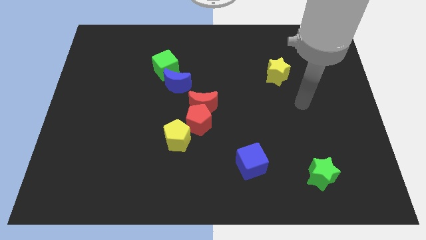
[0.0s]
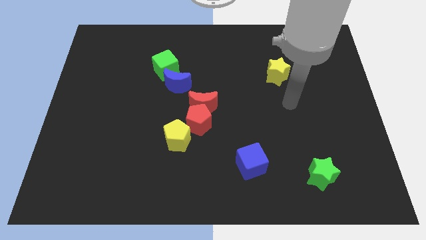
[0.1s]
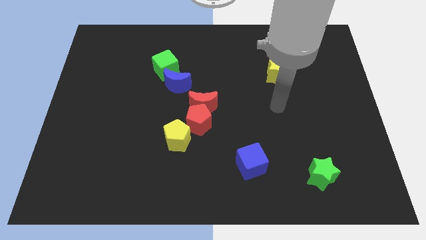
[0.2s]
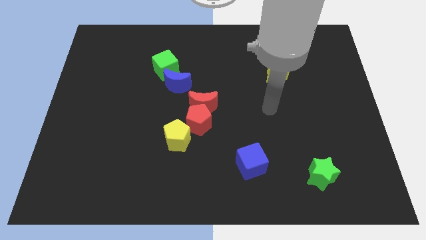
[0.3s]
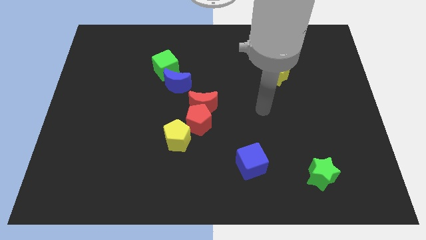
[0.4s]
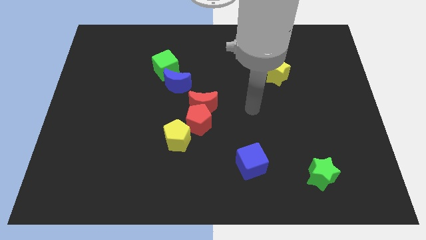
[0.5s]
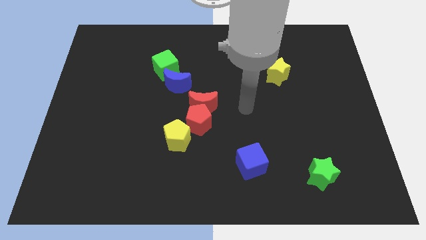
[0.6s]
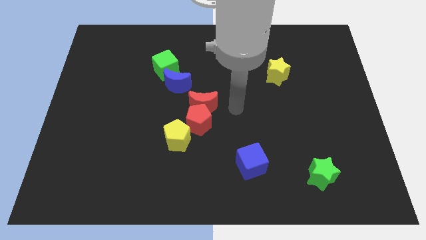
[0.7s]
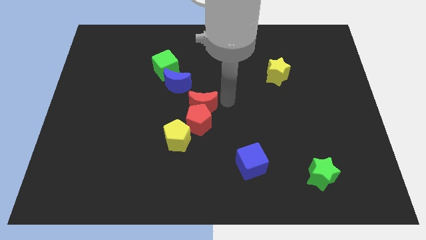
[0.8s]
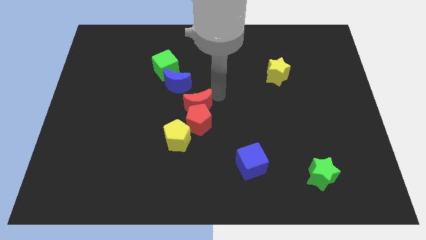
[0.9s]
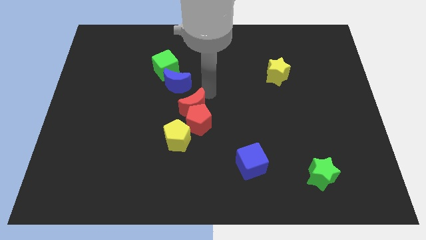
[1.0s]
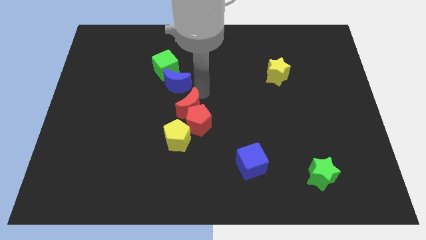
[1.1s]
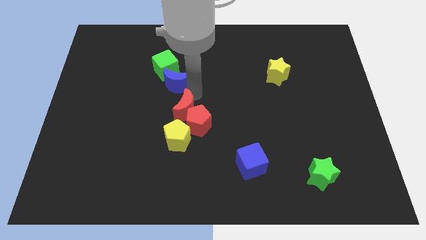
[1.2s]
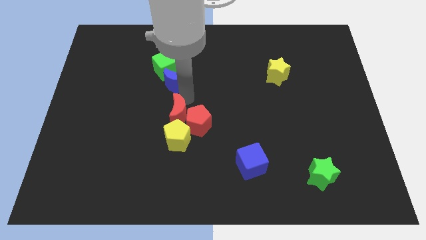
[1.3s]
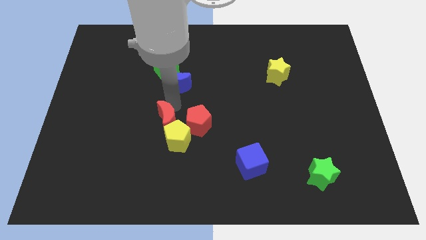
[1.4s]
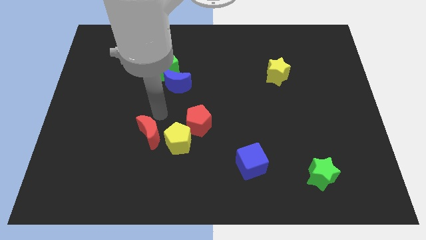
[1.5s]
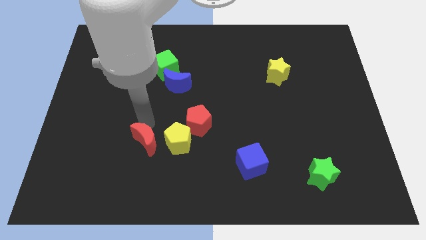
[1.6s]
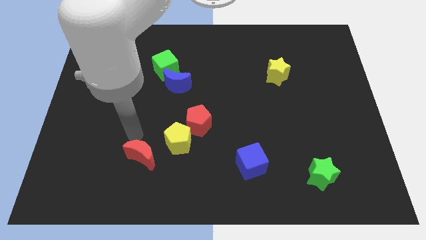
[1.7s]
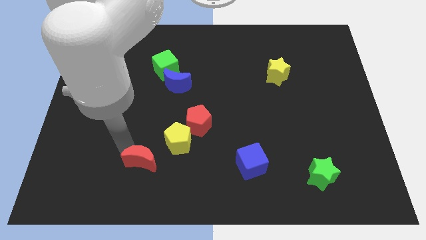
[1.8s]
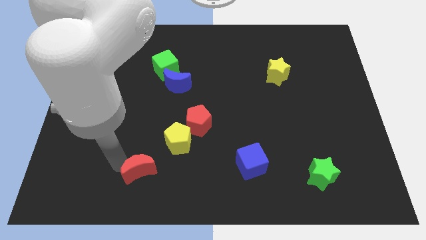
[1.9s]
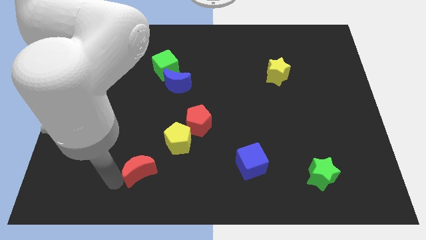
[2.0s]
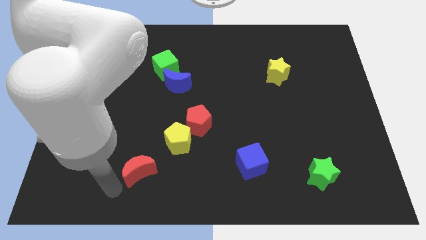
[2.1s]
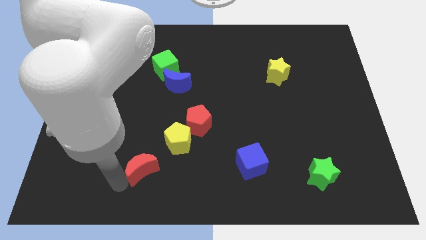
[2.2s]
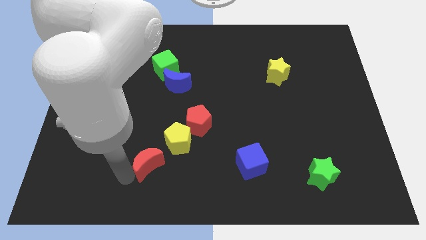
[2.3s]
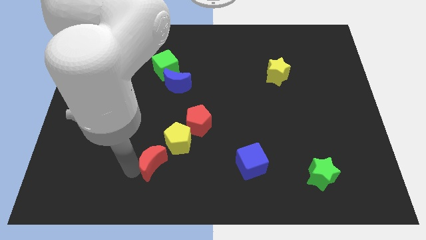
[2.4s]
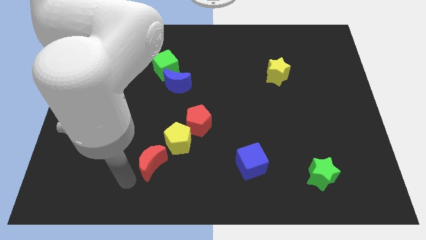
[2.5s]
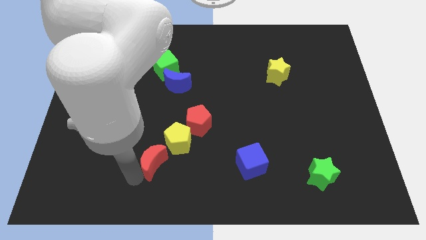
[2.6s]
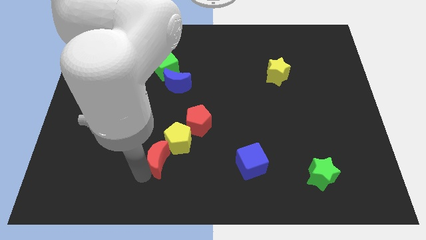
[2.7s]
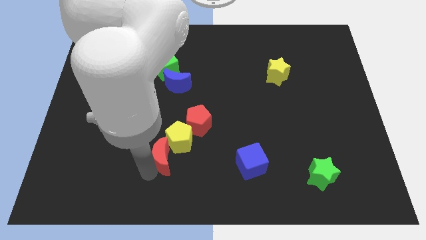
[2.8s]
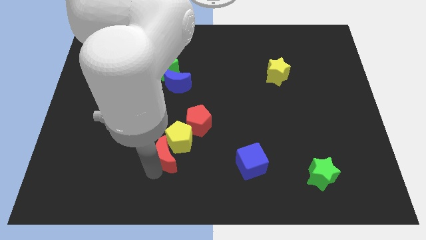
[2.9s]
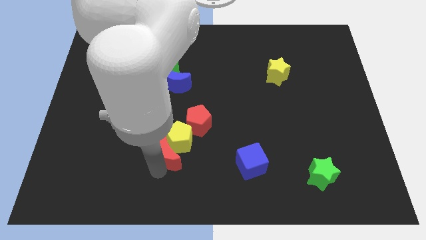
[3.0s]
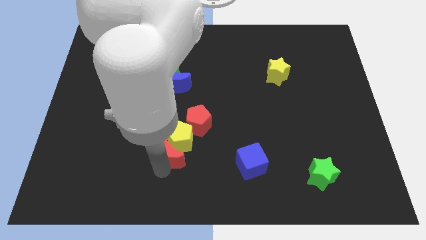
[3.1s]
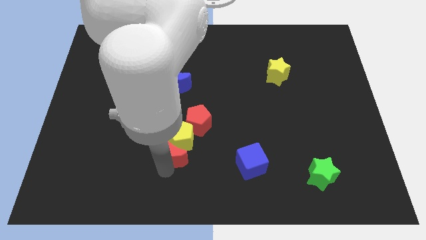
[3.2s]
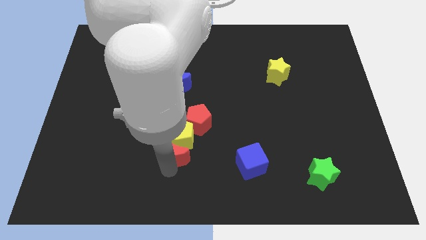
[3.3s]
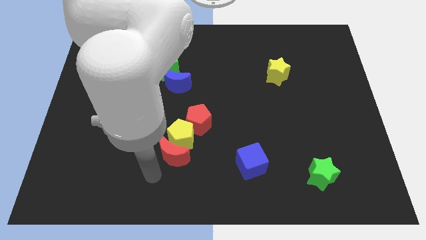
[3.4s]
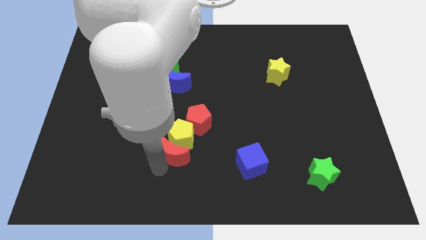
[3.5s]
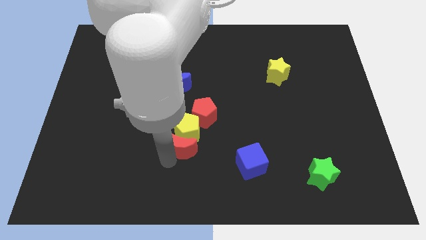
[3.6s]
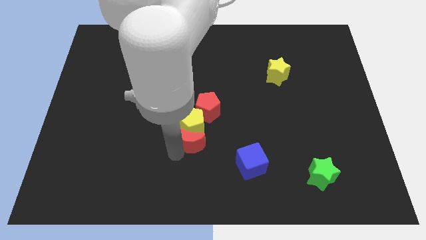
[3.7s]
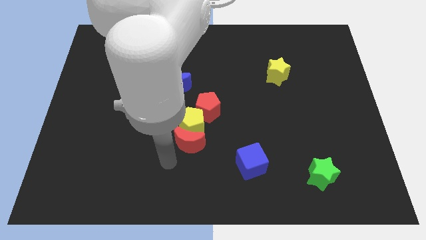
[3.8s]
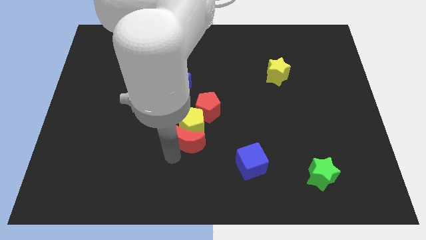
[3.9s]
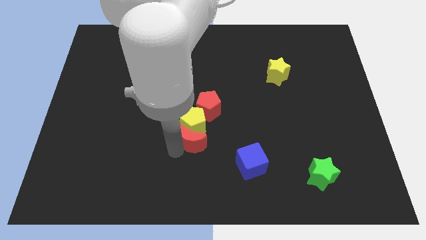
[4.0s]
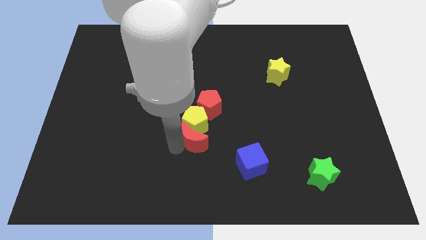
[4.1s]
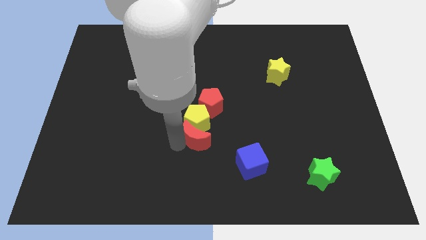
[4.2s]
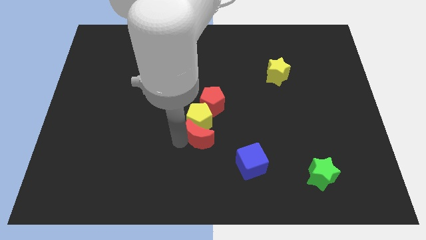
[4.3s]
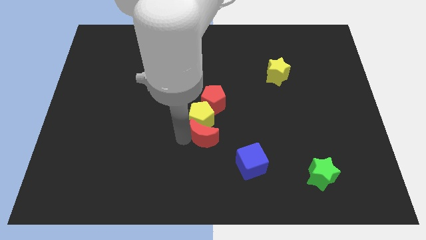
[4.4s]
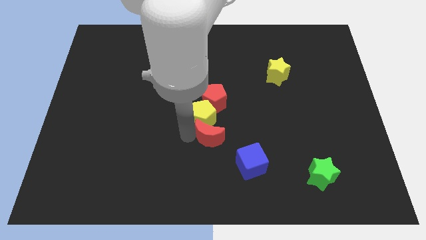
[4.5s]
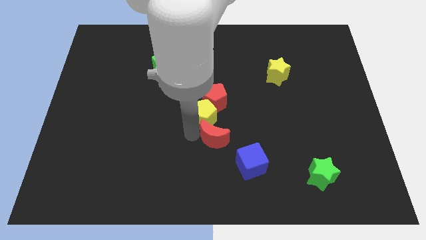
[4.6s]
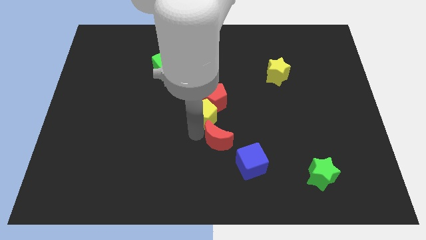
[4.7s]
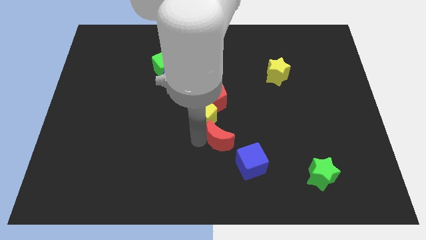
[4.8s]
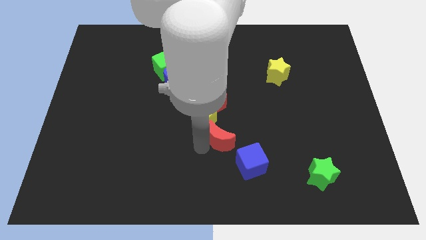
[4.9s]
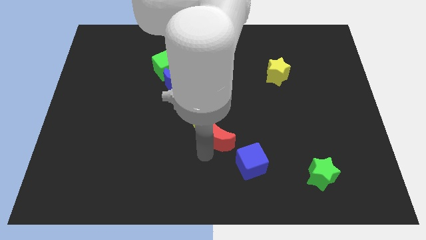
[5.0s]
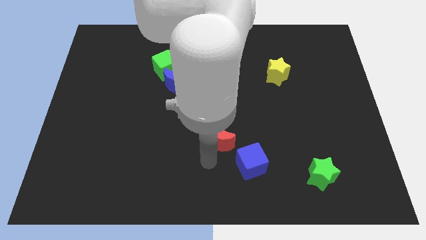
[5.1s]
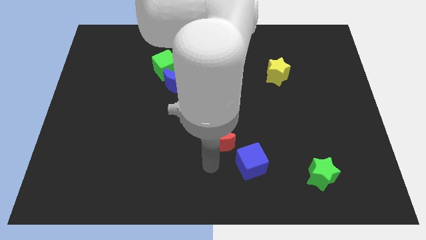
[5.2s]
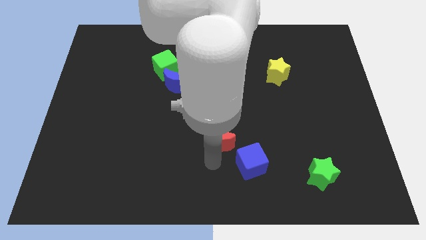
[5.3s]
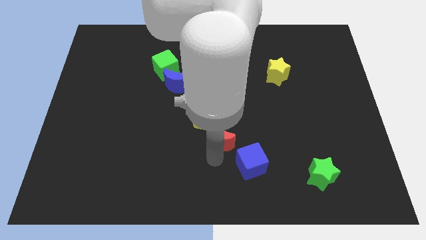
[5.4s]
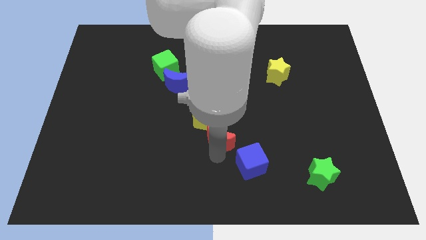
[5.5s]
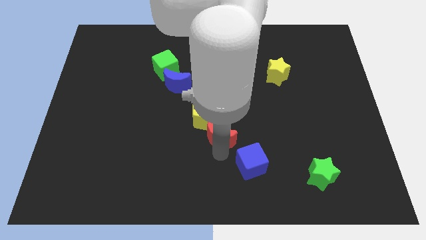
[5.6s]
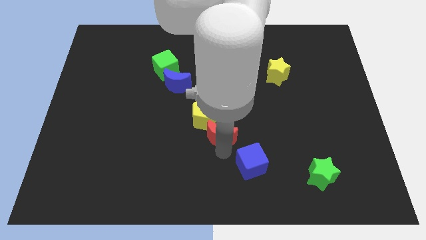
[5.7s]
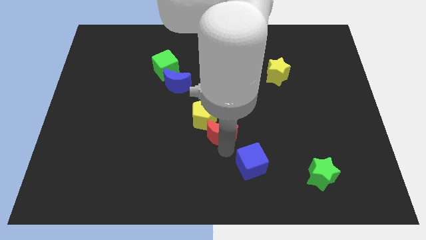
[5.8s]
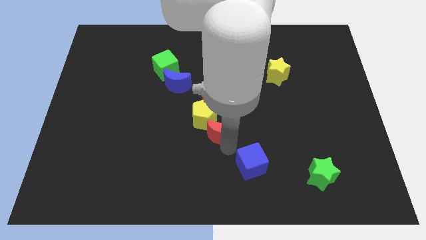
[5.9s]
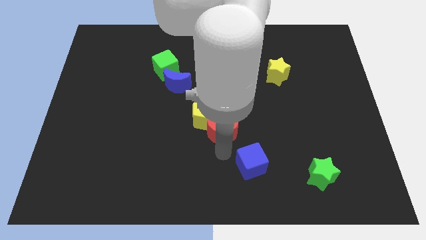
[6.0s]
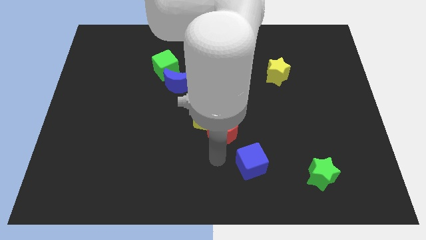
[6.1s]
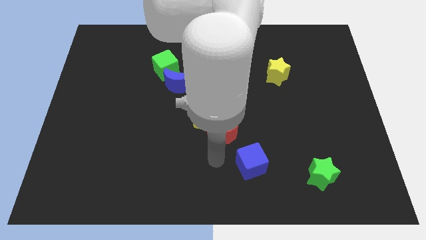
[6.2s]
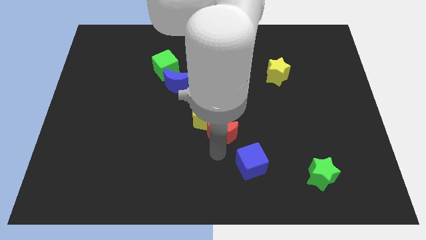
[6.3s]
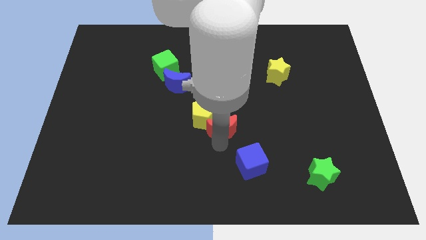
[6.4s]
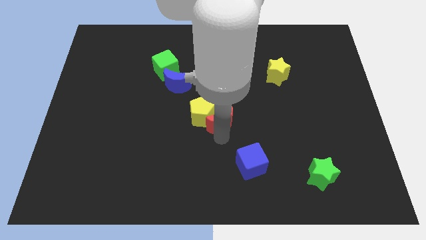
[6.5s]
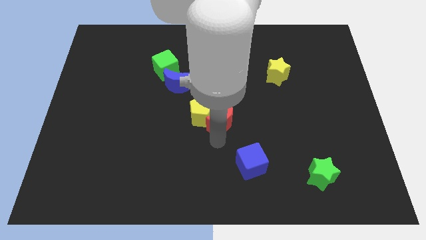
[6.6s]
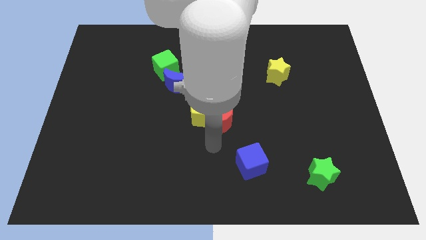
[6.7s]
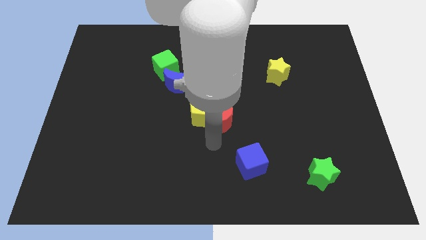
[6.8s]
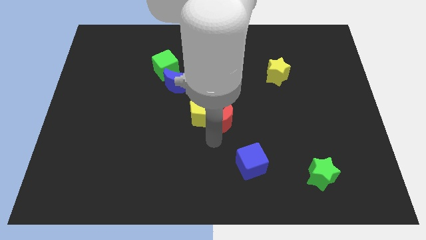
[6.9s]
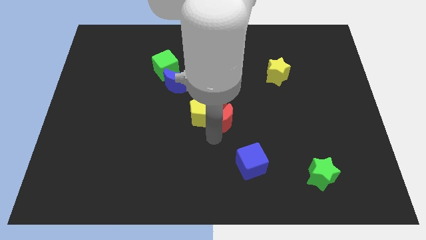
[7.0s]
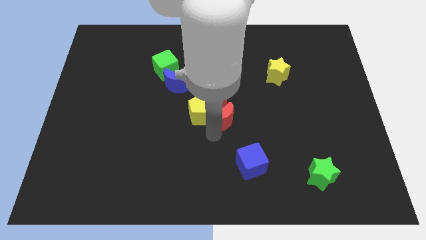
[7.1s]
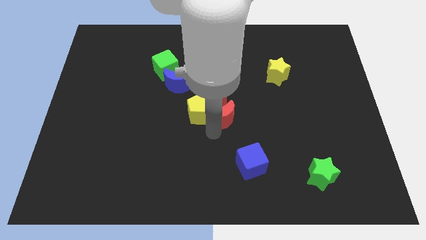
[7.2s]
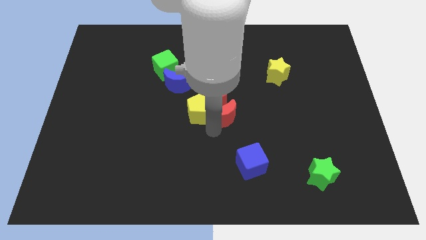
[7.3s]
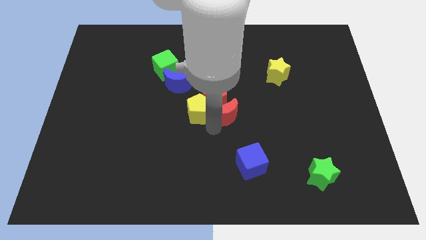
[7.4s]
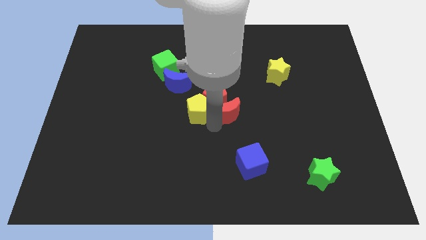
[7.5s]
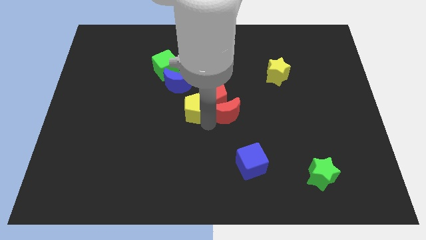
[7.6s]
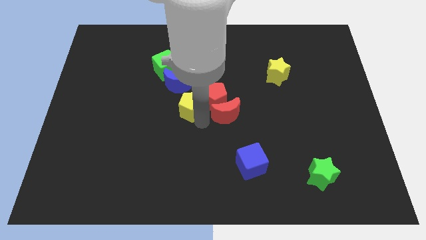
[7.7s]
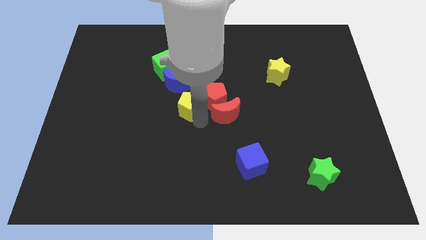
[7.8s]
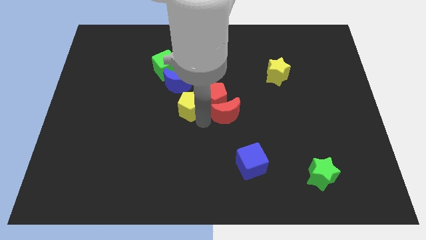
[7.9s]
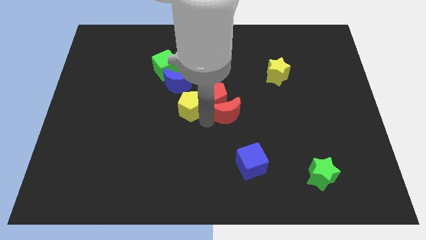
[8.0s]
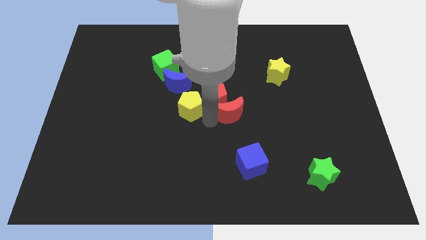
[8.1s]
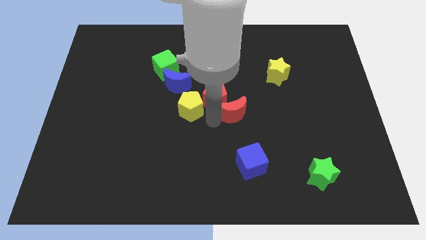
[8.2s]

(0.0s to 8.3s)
push the red moon right a bit
